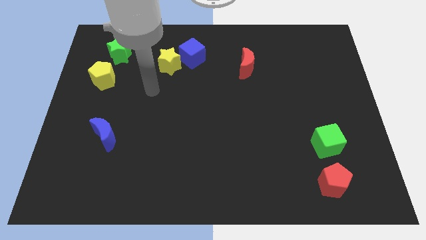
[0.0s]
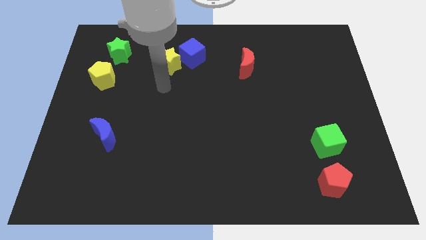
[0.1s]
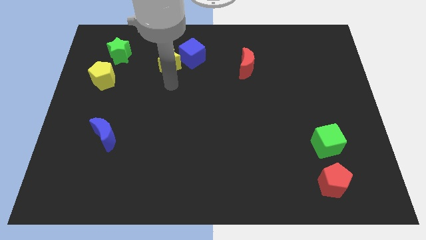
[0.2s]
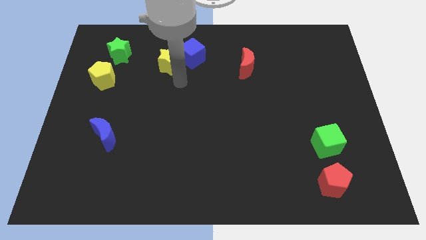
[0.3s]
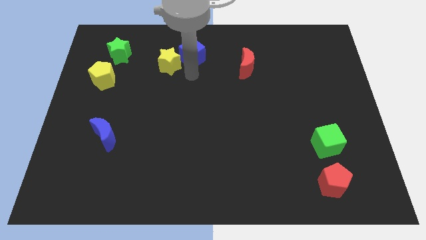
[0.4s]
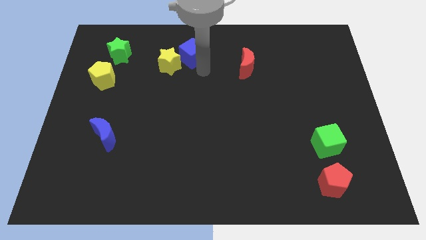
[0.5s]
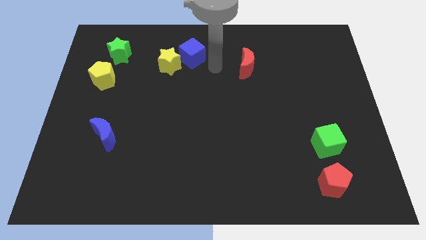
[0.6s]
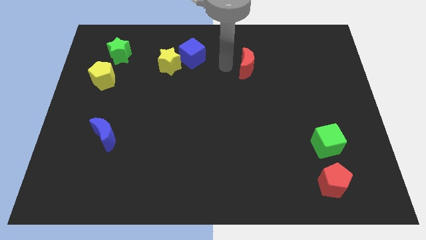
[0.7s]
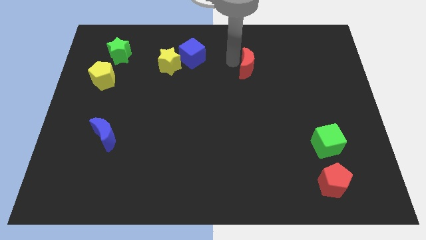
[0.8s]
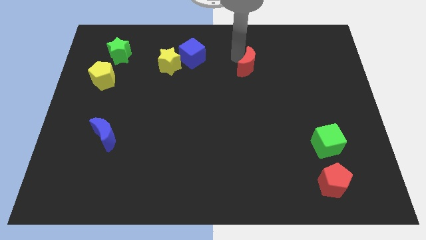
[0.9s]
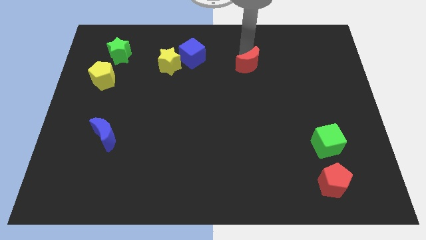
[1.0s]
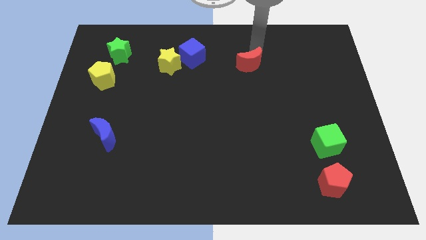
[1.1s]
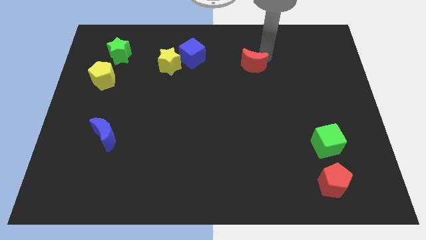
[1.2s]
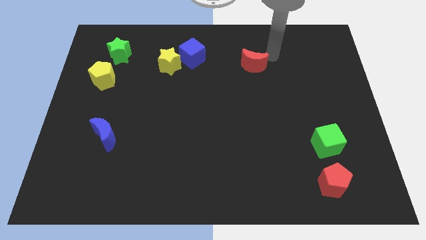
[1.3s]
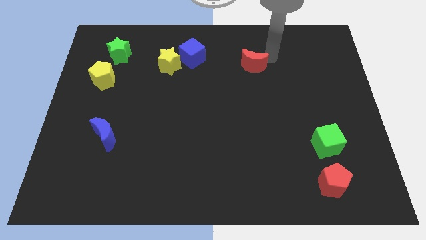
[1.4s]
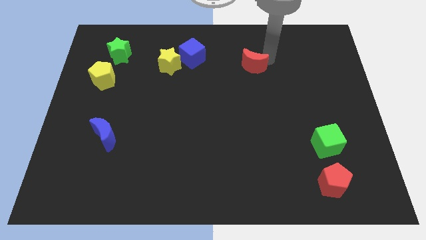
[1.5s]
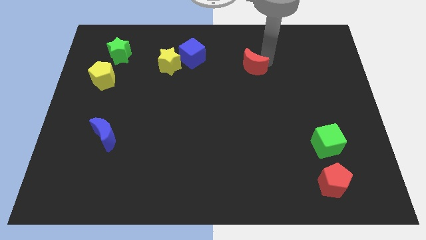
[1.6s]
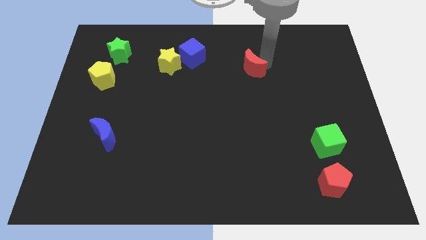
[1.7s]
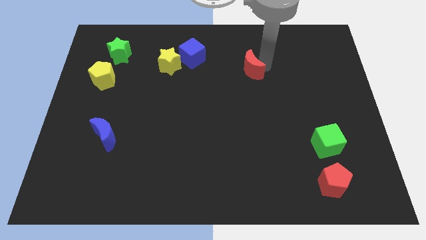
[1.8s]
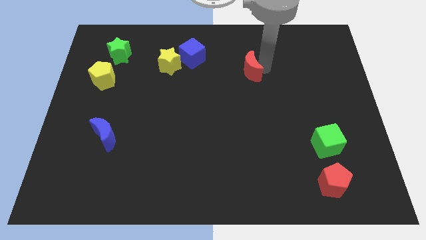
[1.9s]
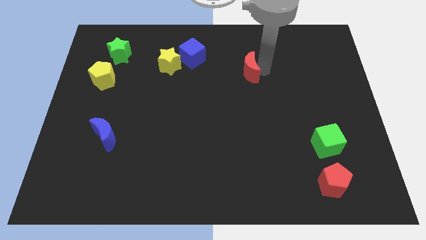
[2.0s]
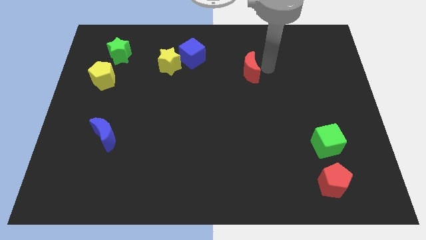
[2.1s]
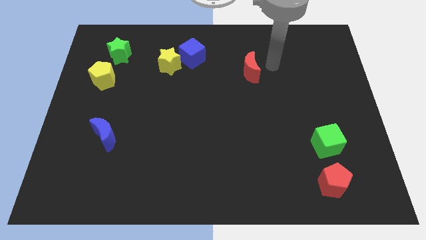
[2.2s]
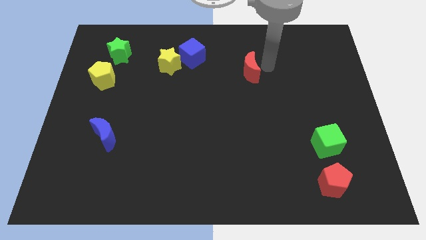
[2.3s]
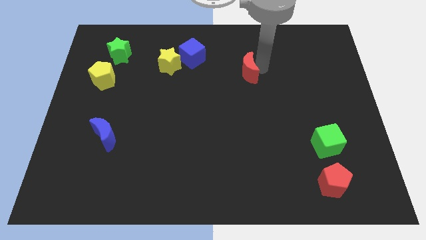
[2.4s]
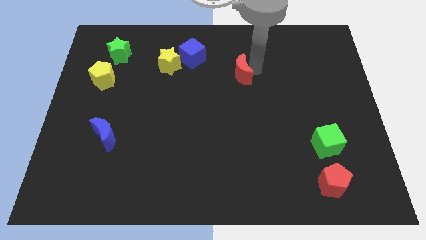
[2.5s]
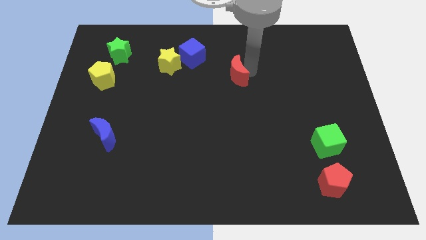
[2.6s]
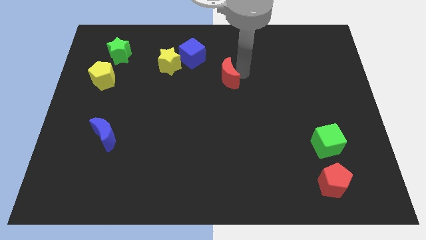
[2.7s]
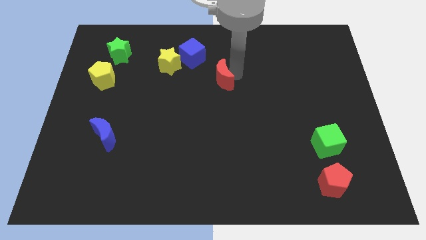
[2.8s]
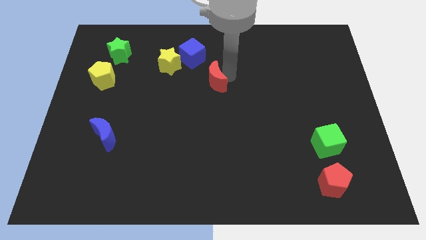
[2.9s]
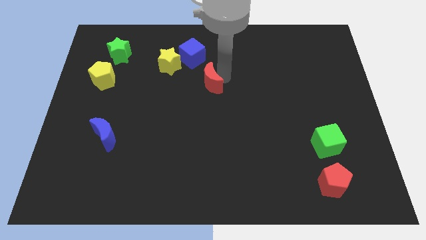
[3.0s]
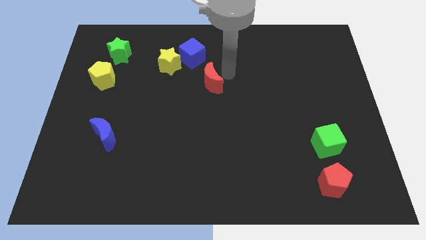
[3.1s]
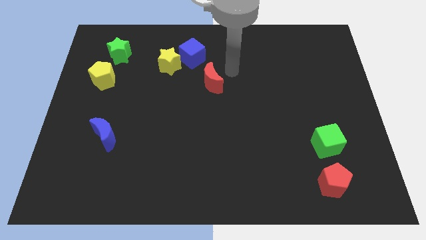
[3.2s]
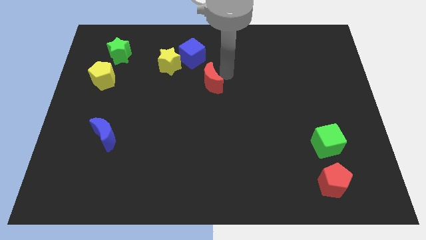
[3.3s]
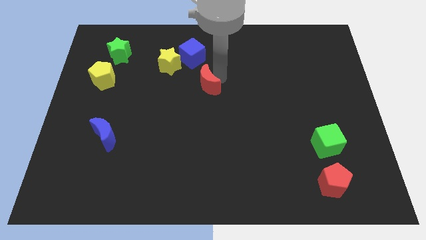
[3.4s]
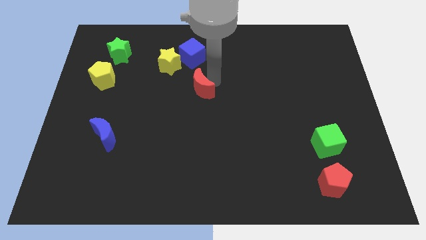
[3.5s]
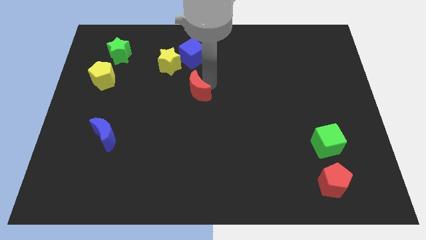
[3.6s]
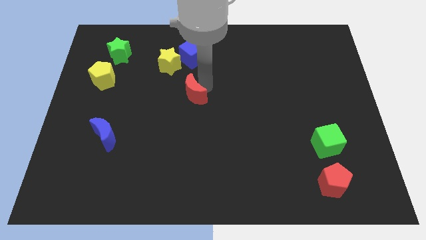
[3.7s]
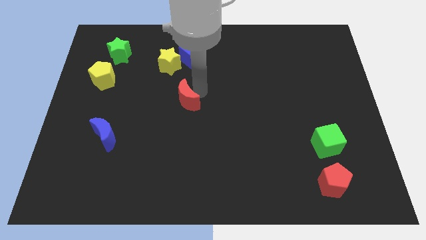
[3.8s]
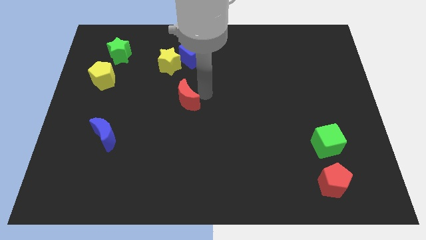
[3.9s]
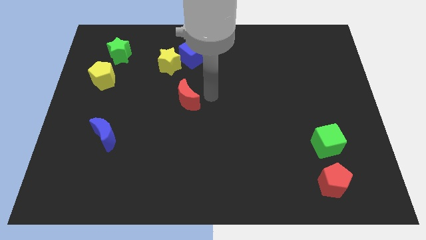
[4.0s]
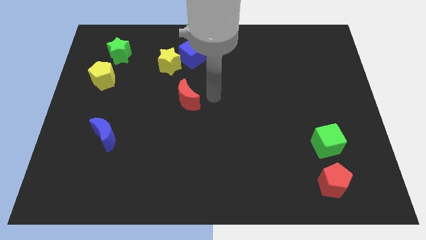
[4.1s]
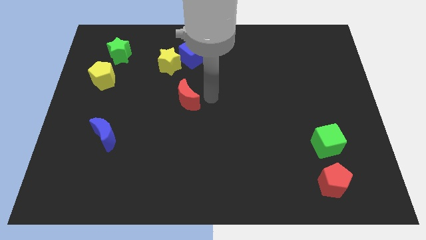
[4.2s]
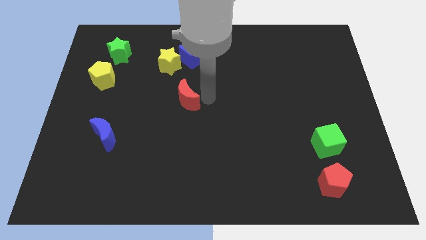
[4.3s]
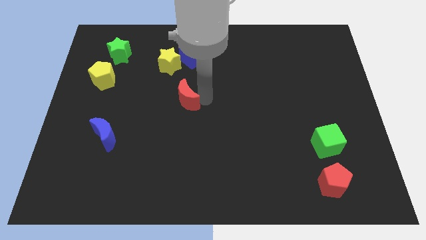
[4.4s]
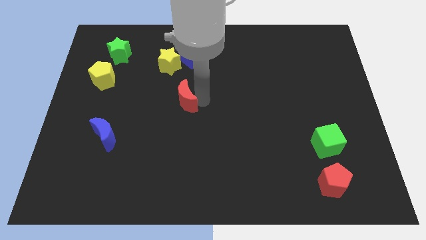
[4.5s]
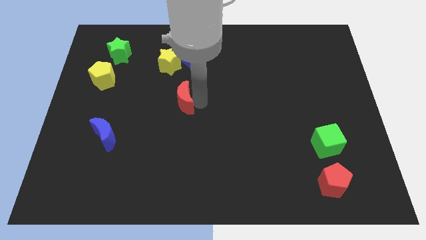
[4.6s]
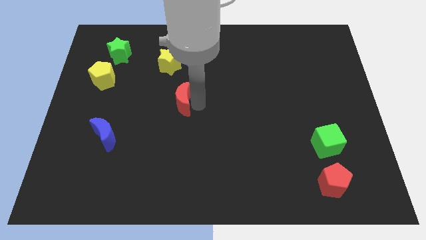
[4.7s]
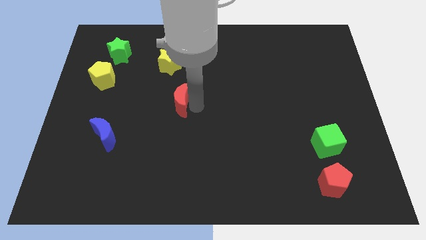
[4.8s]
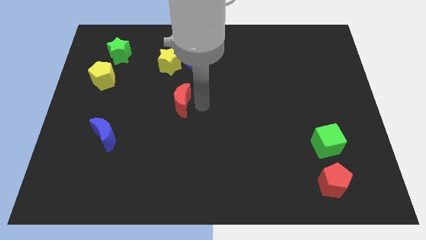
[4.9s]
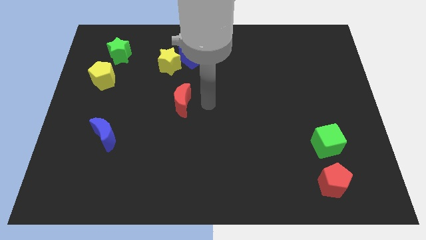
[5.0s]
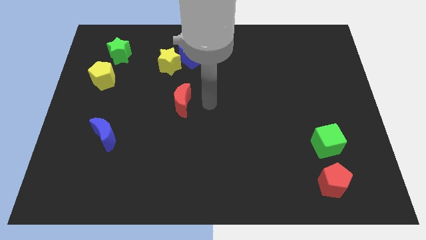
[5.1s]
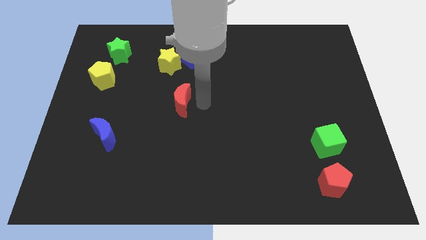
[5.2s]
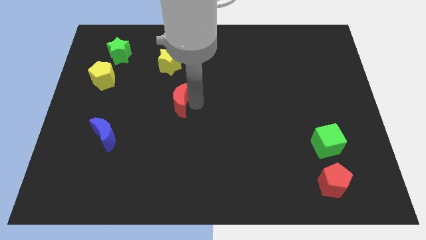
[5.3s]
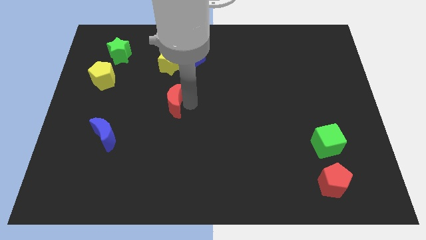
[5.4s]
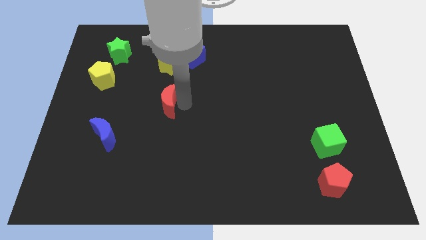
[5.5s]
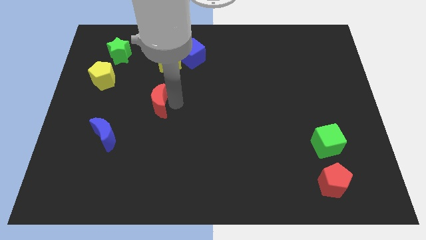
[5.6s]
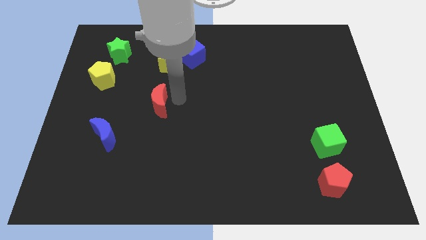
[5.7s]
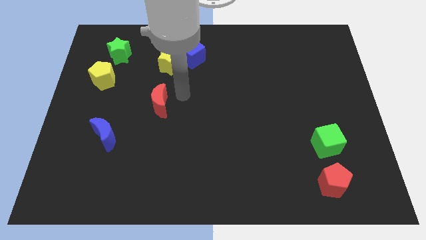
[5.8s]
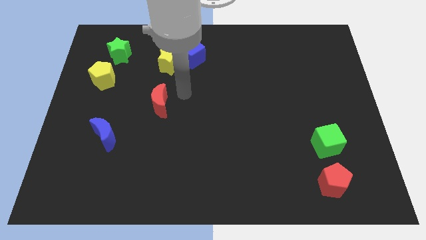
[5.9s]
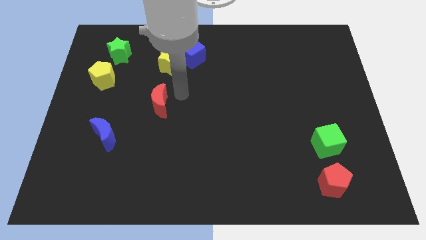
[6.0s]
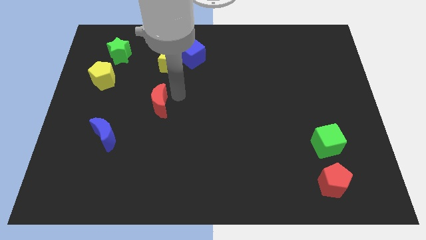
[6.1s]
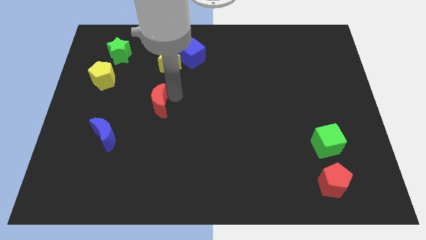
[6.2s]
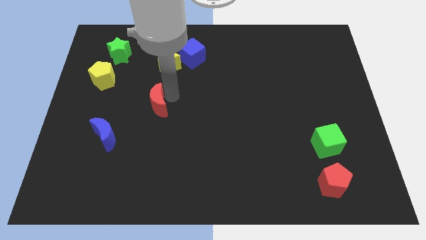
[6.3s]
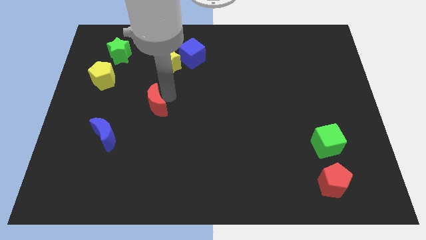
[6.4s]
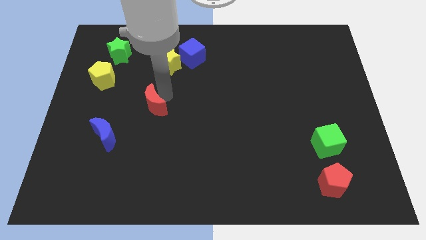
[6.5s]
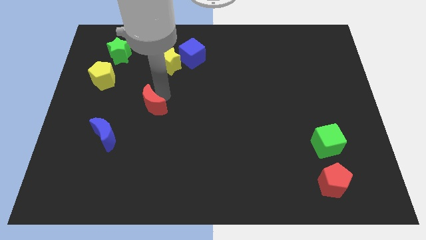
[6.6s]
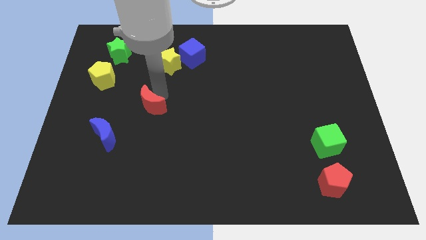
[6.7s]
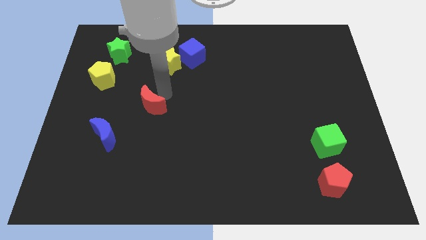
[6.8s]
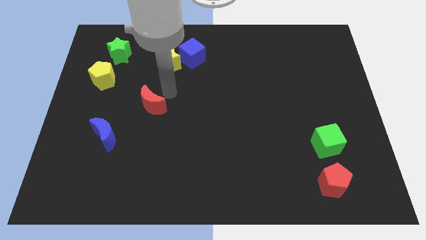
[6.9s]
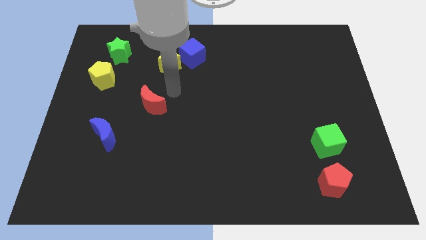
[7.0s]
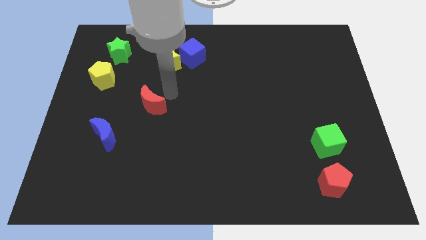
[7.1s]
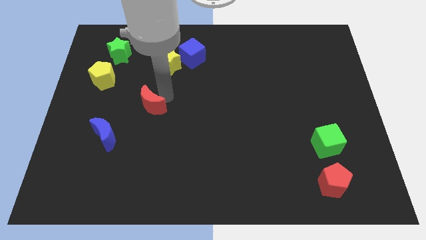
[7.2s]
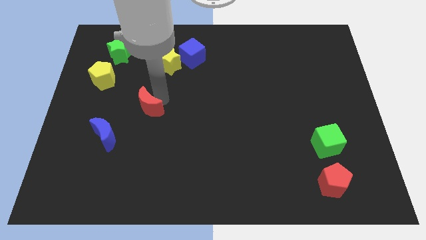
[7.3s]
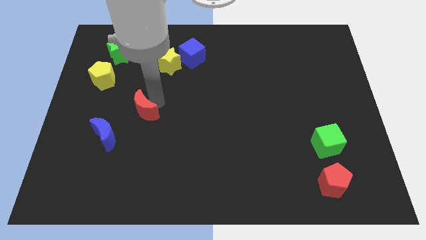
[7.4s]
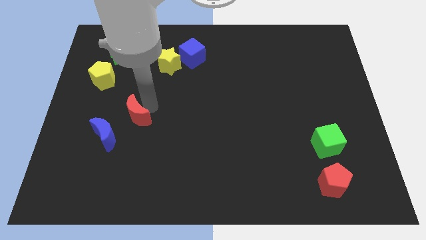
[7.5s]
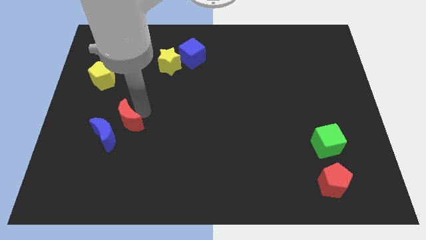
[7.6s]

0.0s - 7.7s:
push the red moon to the blue moon
